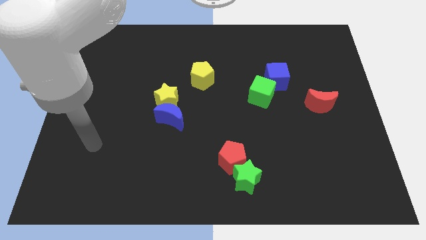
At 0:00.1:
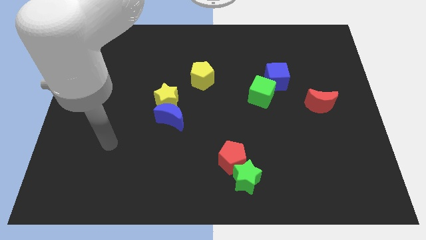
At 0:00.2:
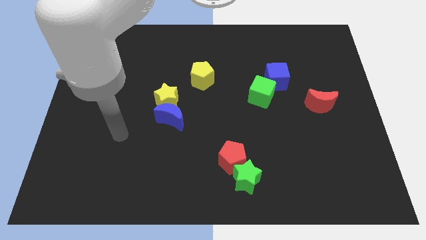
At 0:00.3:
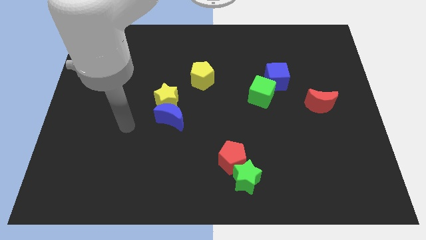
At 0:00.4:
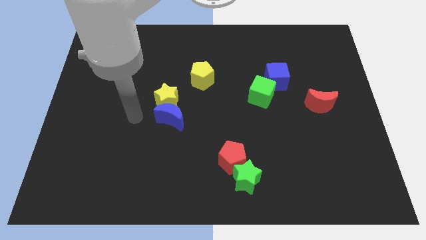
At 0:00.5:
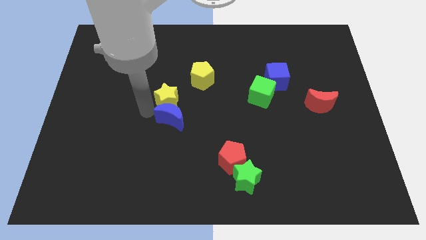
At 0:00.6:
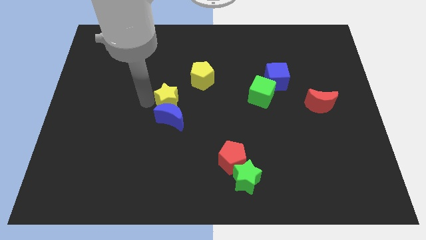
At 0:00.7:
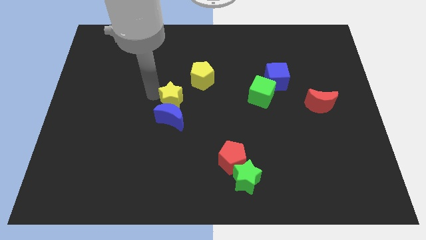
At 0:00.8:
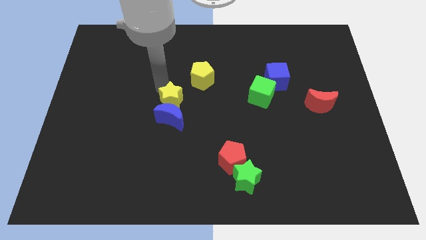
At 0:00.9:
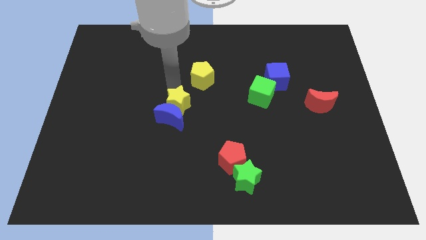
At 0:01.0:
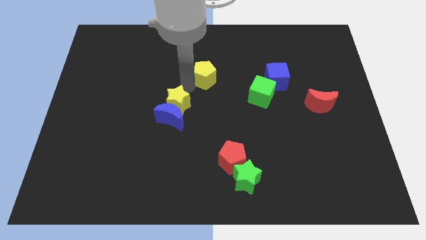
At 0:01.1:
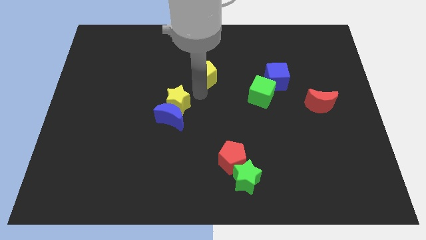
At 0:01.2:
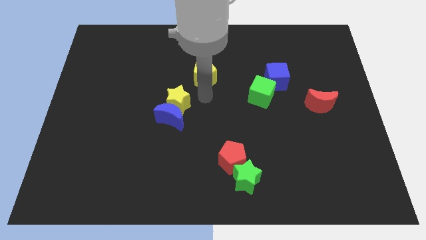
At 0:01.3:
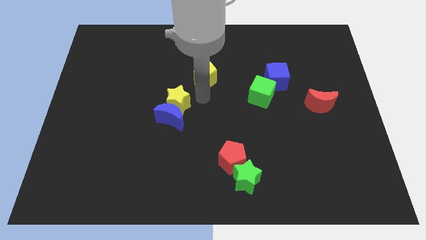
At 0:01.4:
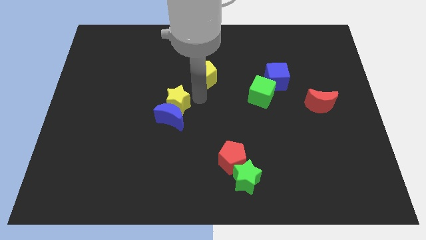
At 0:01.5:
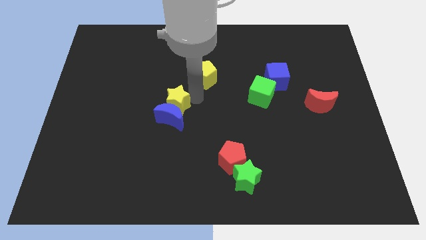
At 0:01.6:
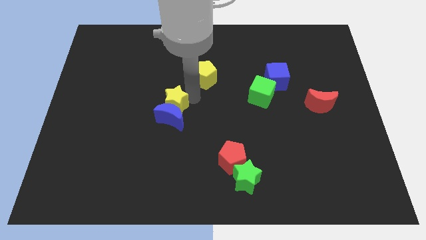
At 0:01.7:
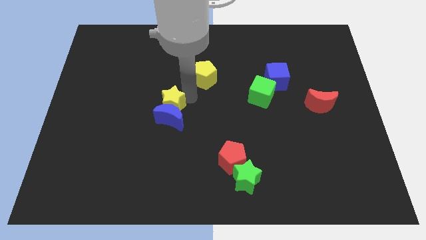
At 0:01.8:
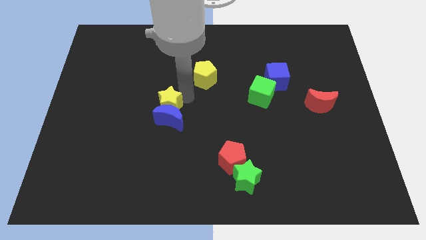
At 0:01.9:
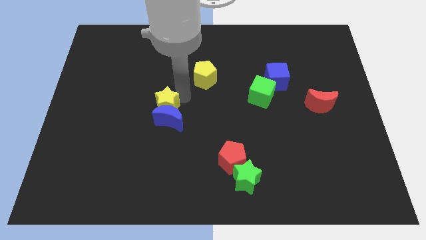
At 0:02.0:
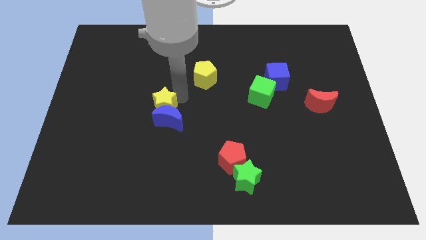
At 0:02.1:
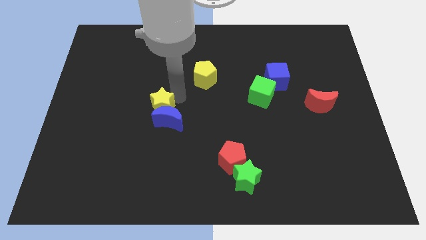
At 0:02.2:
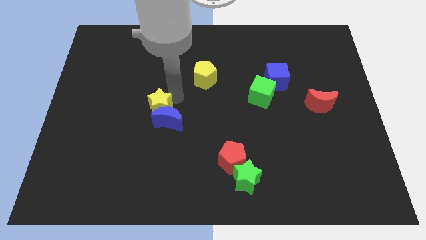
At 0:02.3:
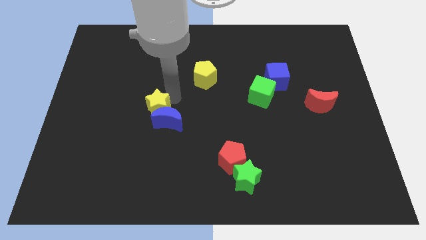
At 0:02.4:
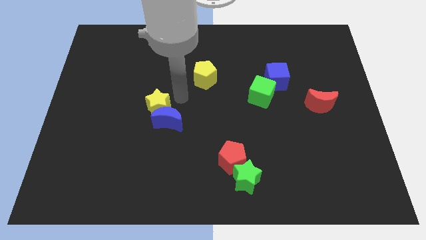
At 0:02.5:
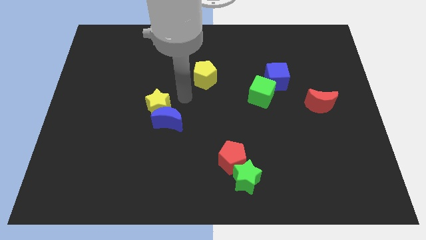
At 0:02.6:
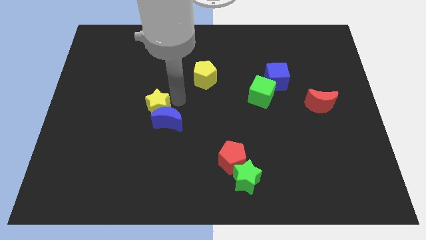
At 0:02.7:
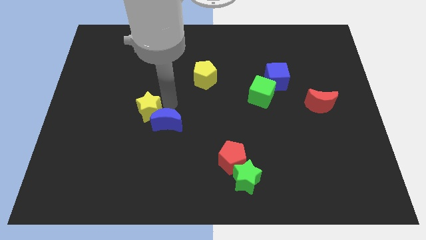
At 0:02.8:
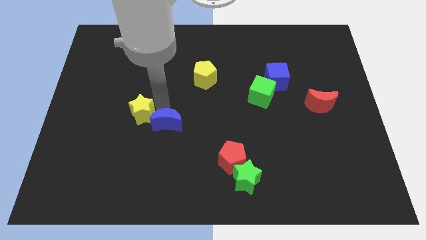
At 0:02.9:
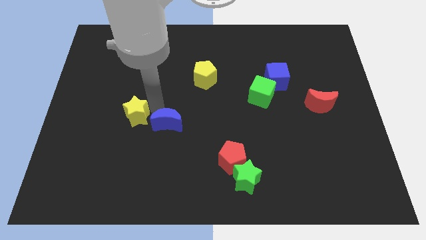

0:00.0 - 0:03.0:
slide the yellow star downwards and to the left diagonally a little bit

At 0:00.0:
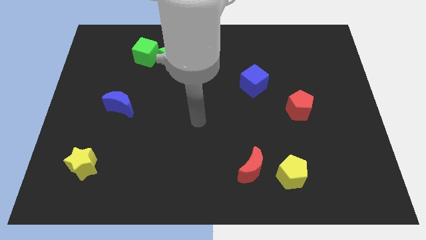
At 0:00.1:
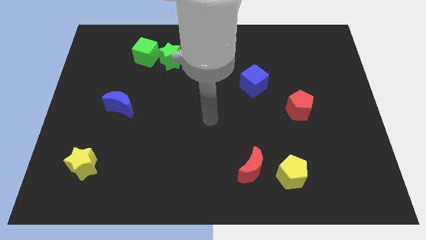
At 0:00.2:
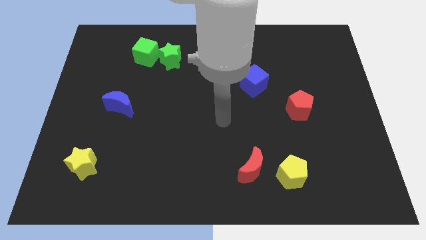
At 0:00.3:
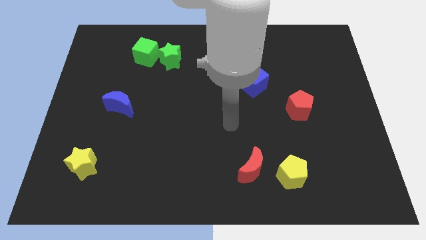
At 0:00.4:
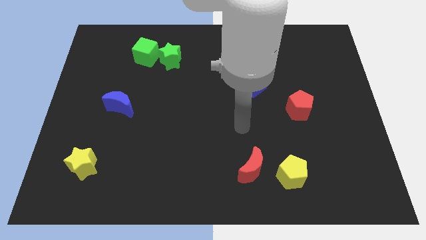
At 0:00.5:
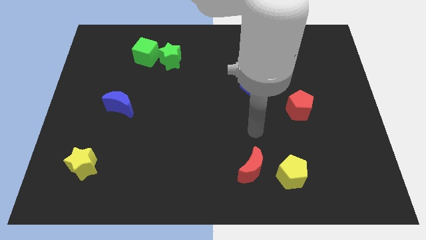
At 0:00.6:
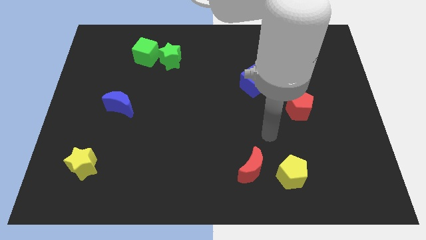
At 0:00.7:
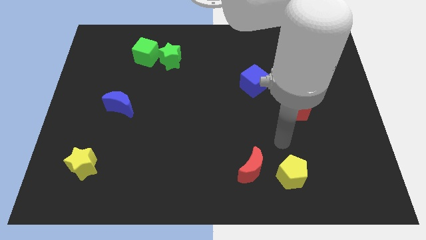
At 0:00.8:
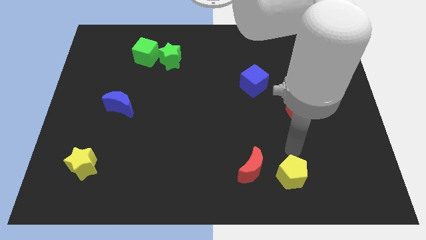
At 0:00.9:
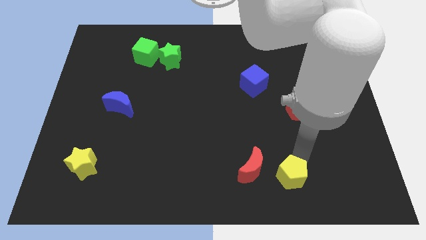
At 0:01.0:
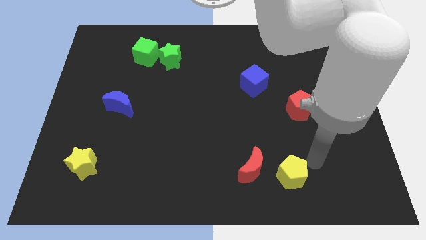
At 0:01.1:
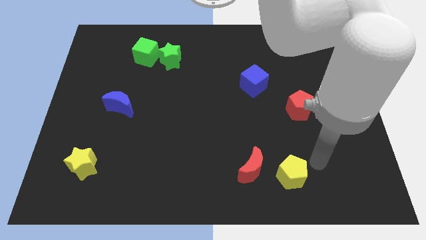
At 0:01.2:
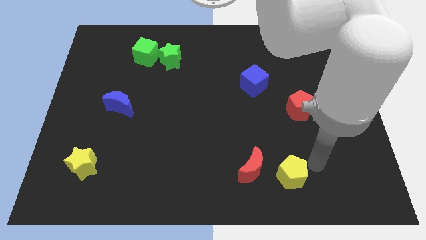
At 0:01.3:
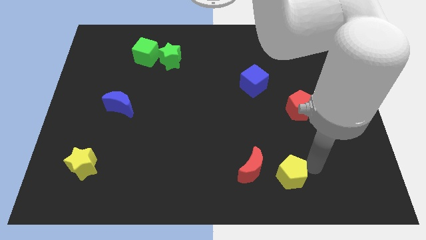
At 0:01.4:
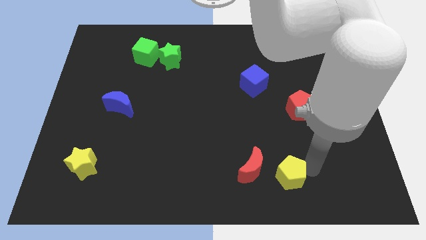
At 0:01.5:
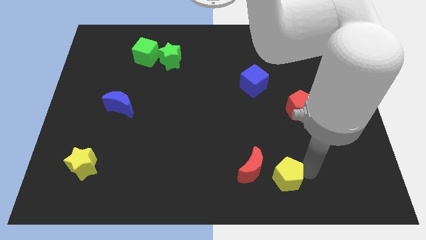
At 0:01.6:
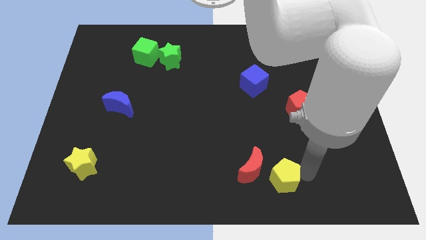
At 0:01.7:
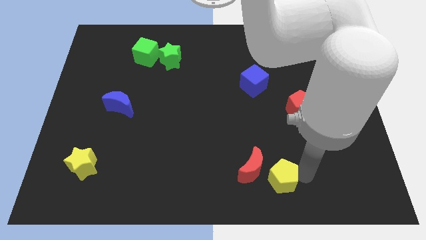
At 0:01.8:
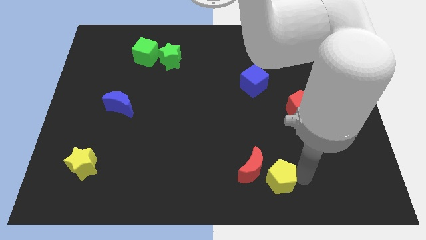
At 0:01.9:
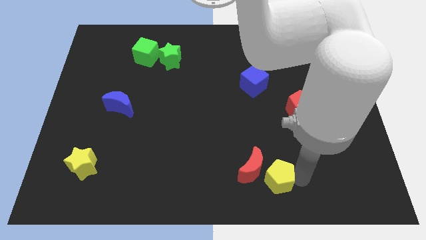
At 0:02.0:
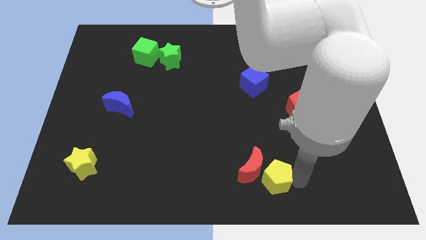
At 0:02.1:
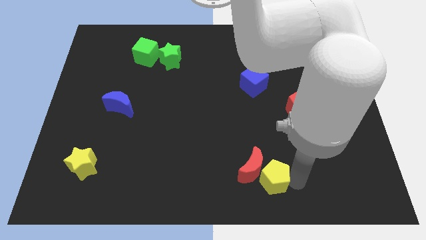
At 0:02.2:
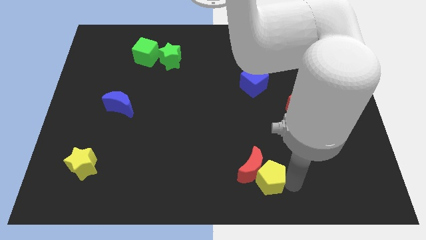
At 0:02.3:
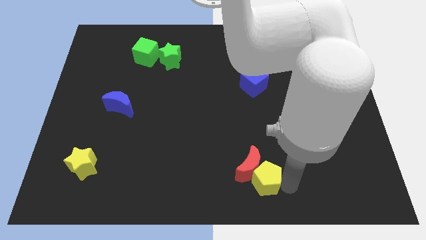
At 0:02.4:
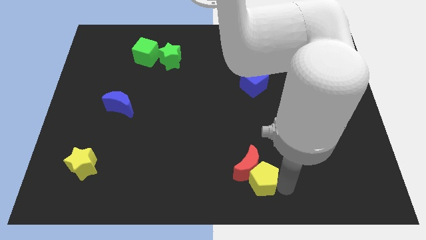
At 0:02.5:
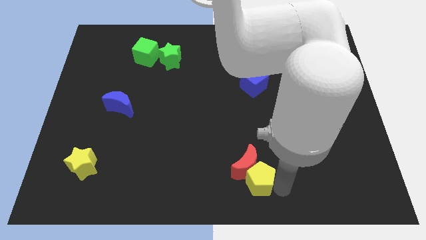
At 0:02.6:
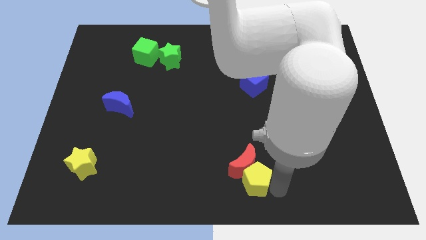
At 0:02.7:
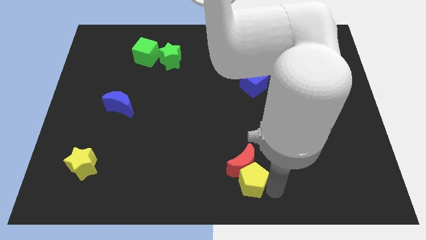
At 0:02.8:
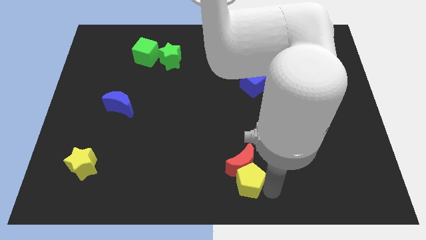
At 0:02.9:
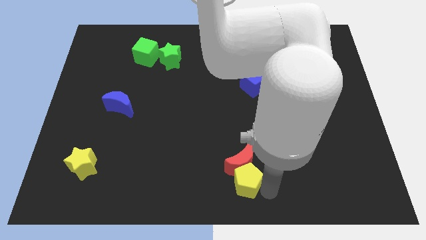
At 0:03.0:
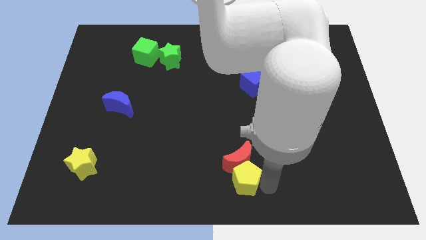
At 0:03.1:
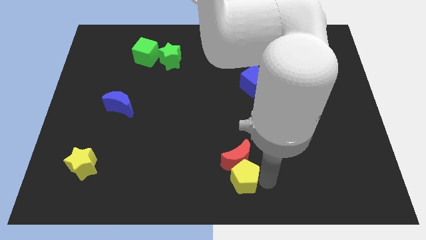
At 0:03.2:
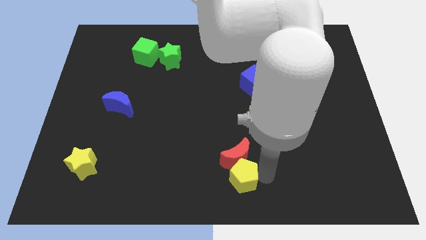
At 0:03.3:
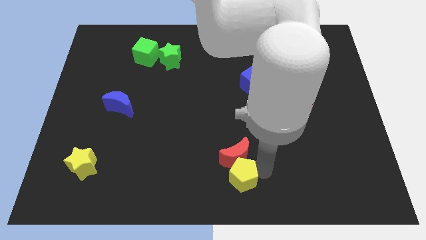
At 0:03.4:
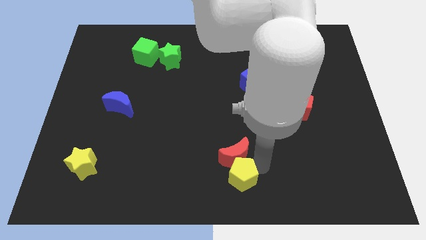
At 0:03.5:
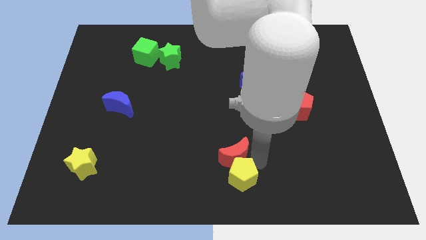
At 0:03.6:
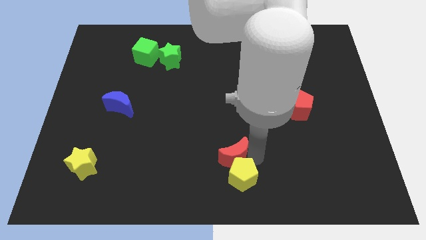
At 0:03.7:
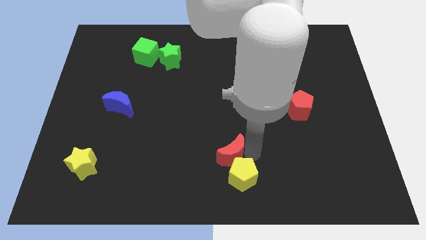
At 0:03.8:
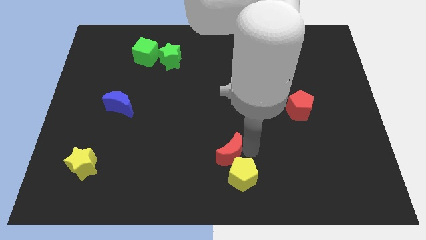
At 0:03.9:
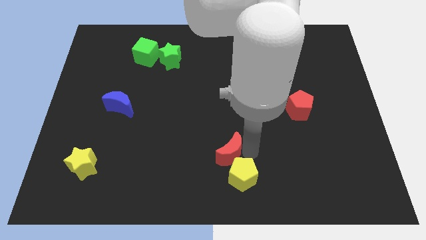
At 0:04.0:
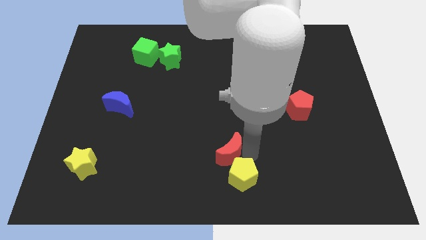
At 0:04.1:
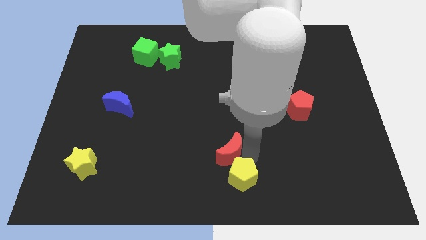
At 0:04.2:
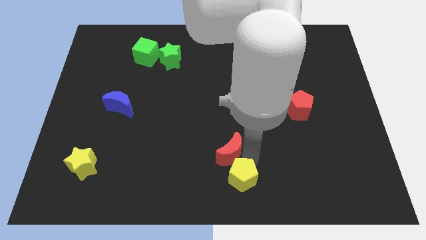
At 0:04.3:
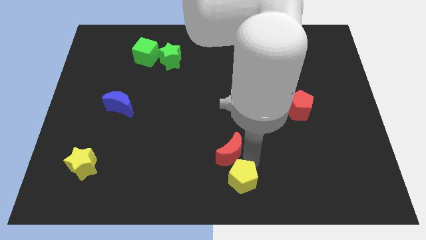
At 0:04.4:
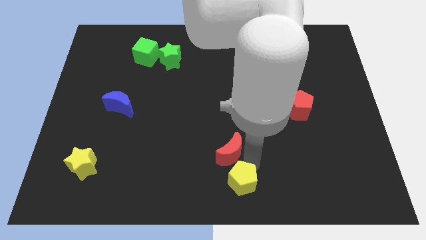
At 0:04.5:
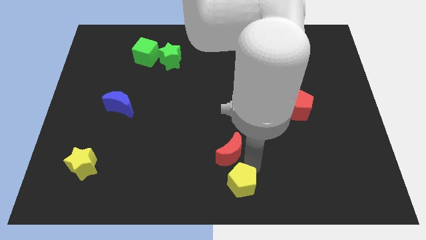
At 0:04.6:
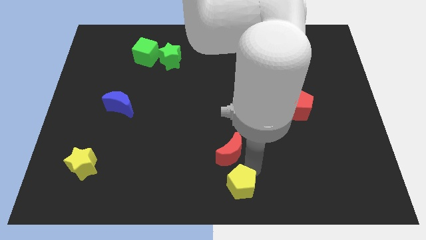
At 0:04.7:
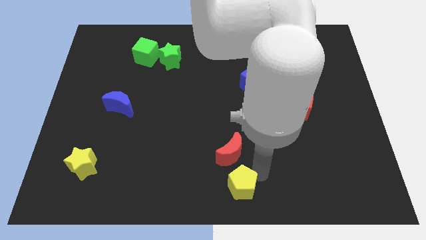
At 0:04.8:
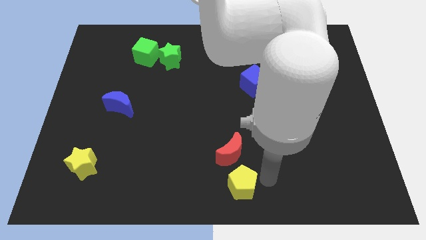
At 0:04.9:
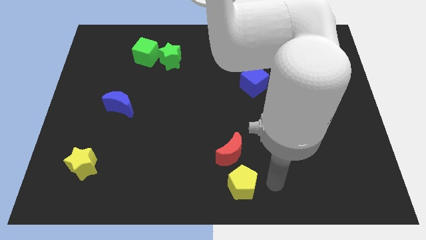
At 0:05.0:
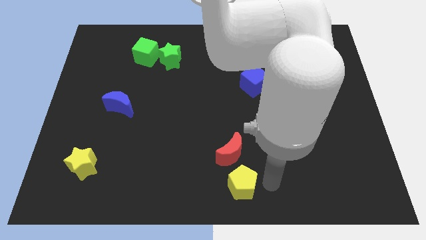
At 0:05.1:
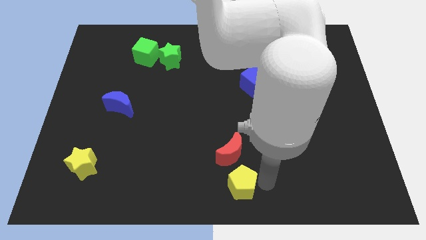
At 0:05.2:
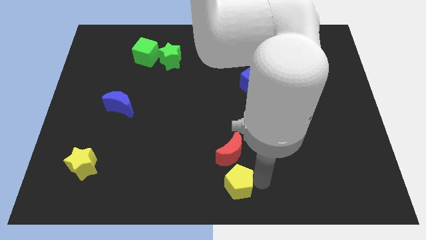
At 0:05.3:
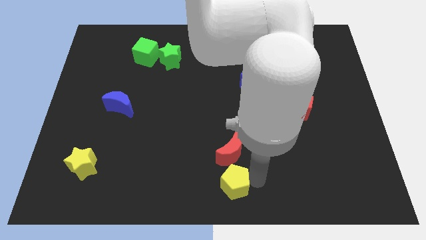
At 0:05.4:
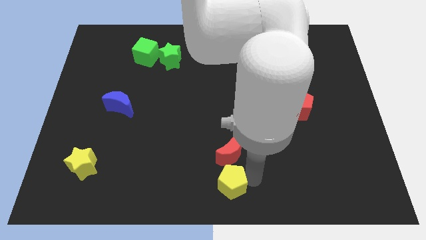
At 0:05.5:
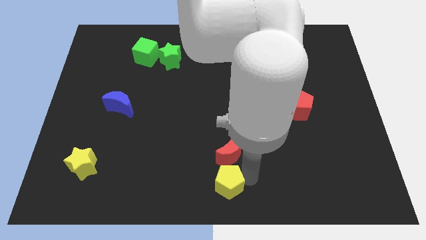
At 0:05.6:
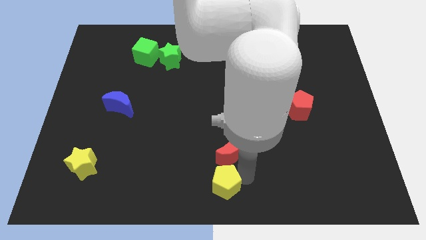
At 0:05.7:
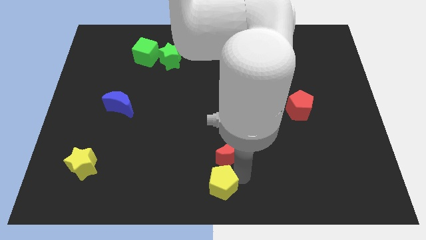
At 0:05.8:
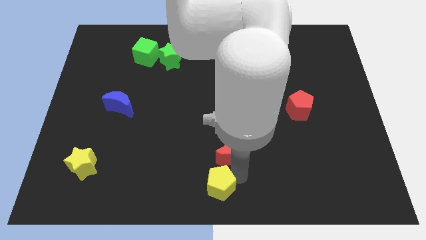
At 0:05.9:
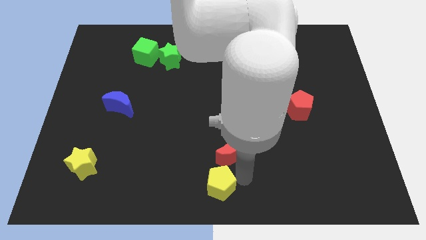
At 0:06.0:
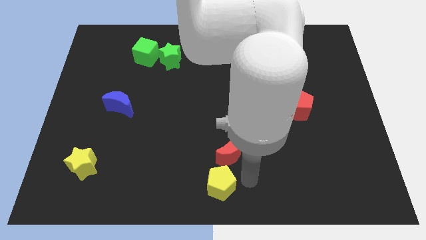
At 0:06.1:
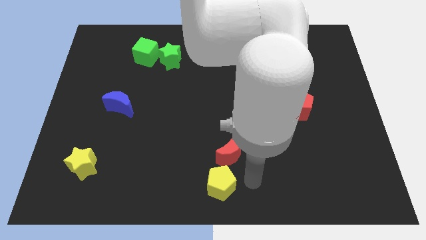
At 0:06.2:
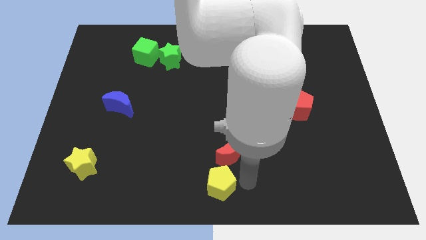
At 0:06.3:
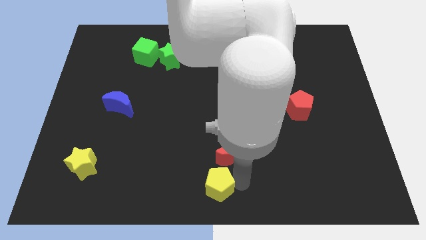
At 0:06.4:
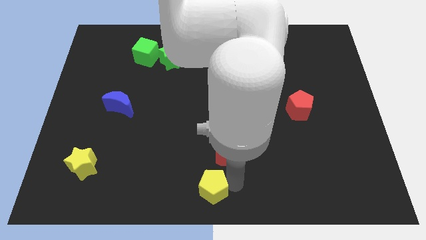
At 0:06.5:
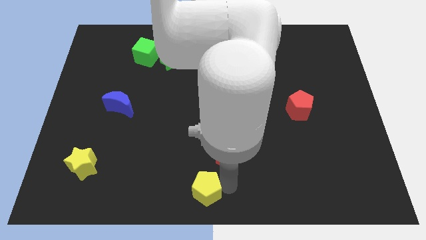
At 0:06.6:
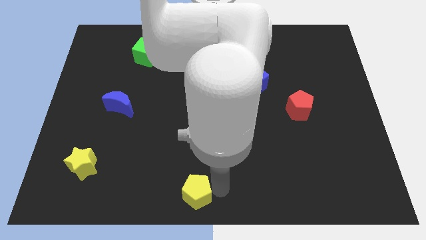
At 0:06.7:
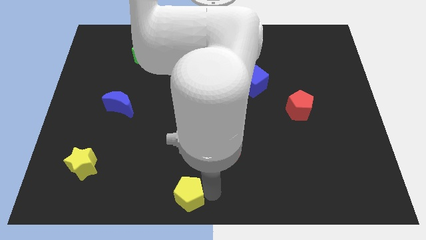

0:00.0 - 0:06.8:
move the yellow pentagon left
